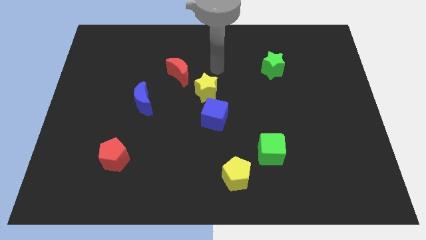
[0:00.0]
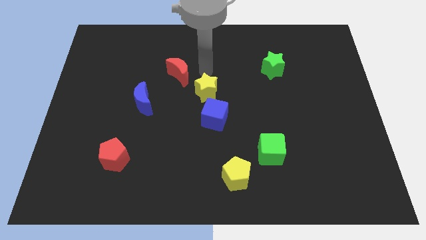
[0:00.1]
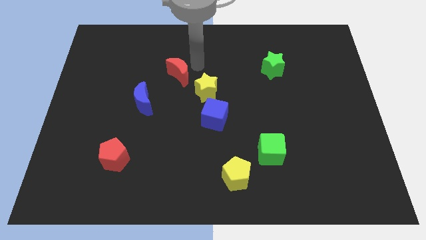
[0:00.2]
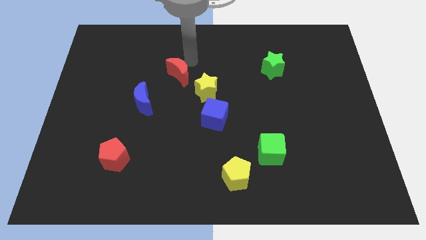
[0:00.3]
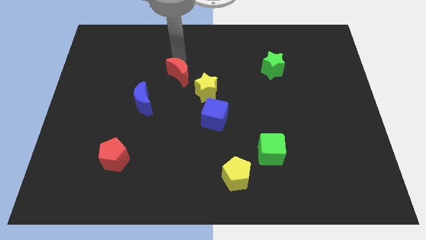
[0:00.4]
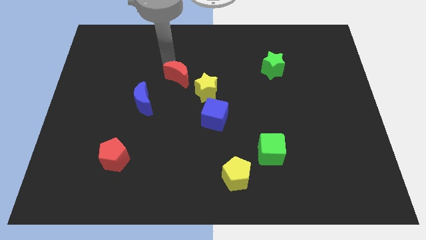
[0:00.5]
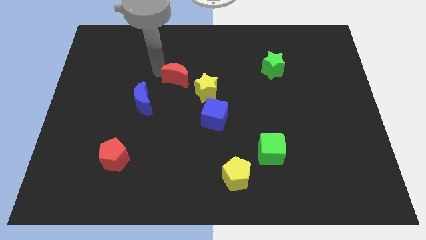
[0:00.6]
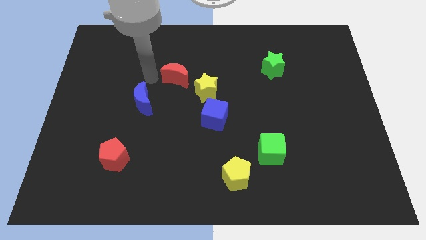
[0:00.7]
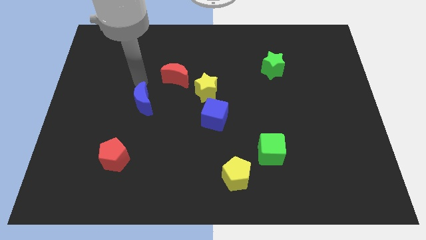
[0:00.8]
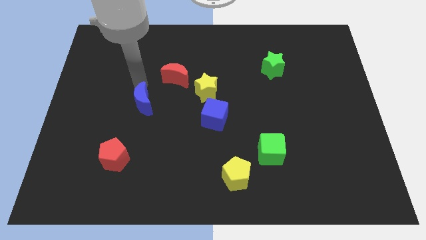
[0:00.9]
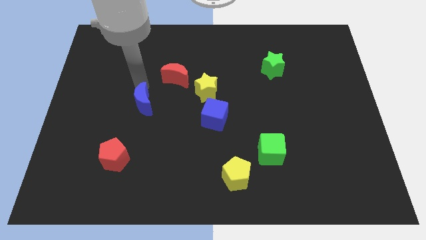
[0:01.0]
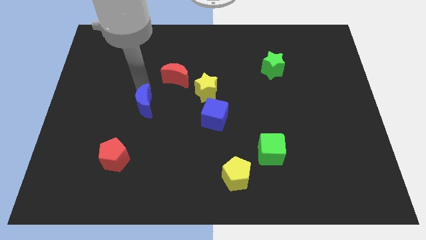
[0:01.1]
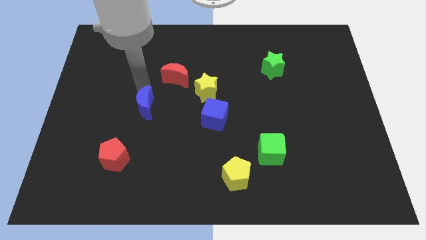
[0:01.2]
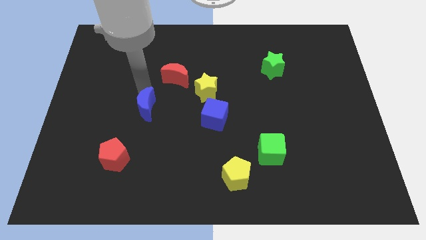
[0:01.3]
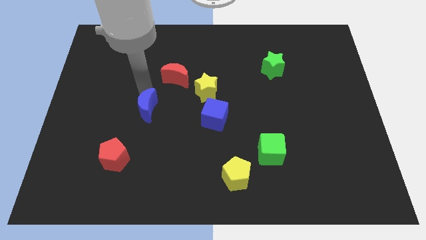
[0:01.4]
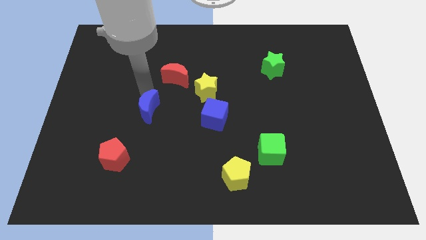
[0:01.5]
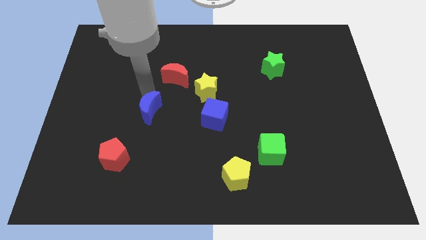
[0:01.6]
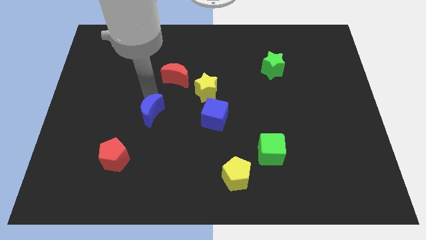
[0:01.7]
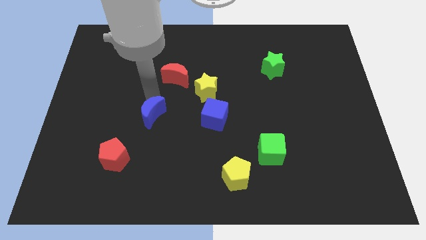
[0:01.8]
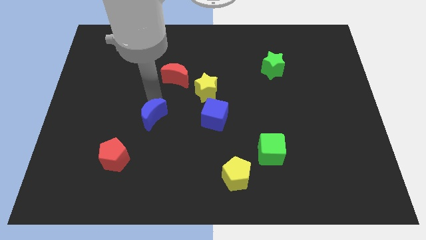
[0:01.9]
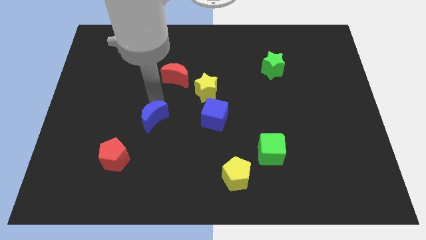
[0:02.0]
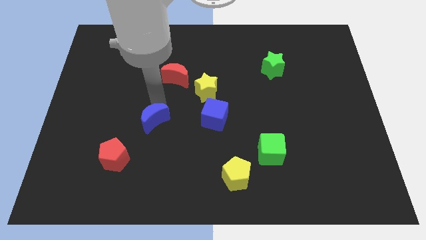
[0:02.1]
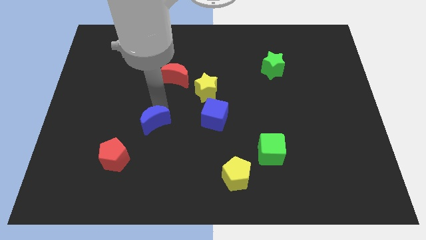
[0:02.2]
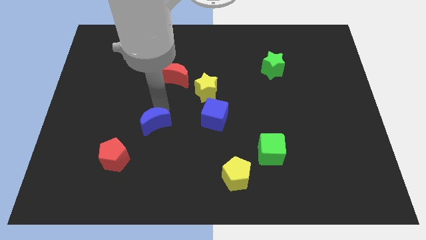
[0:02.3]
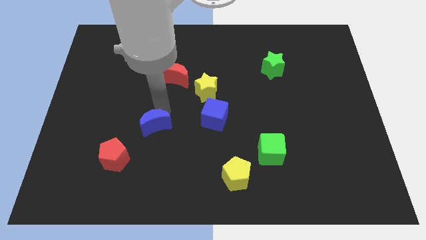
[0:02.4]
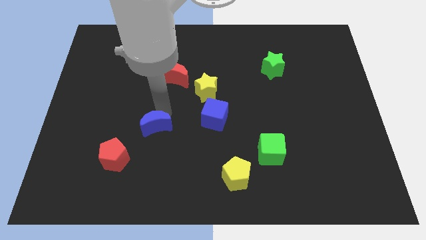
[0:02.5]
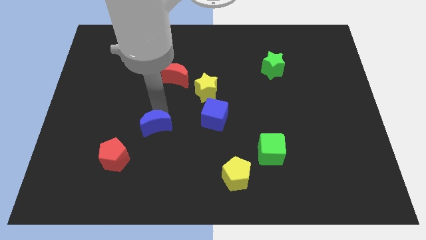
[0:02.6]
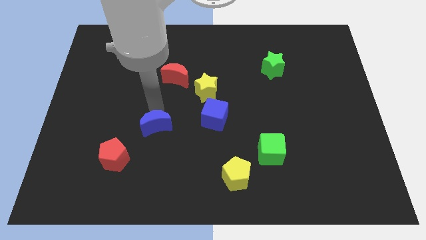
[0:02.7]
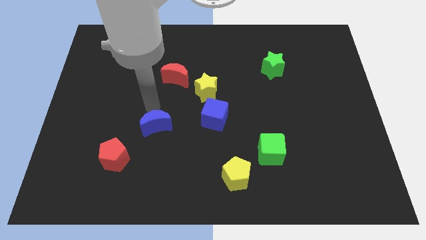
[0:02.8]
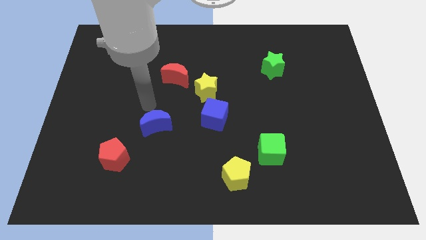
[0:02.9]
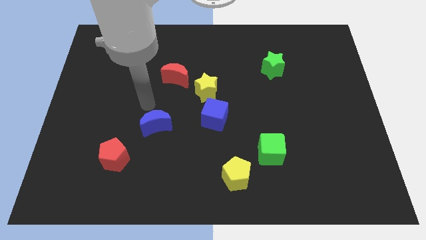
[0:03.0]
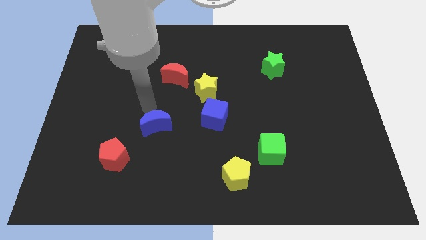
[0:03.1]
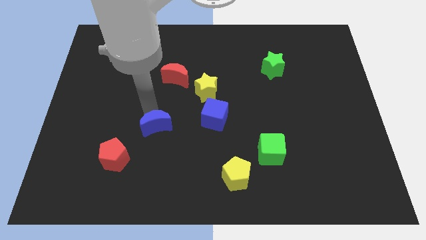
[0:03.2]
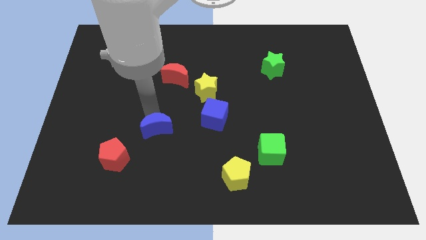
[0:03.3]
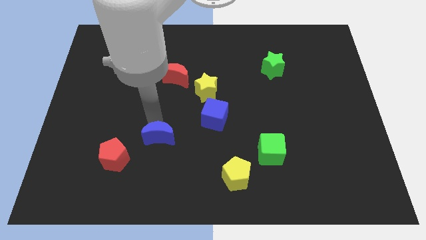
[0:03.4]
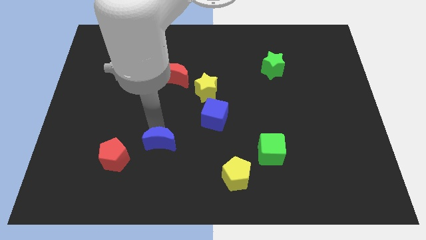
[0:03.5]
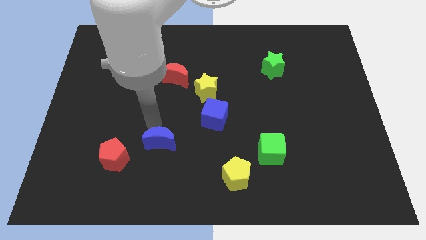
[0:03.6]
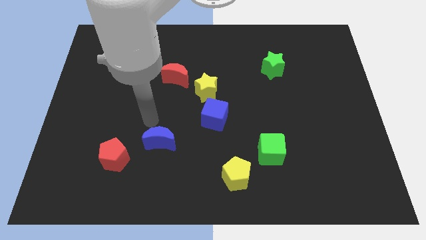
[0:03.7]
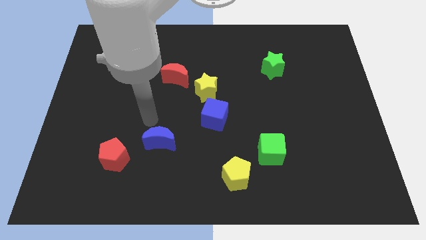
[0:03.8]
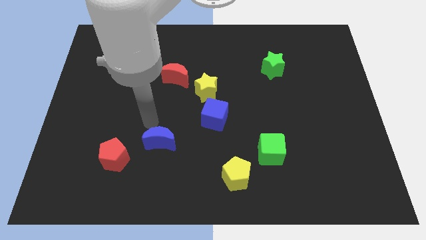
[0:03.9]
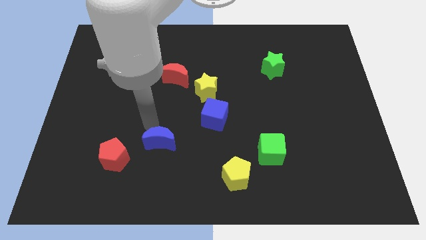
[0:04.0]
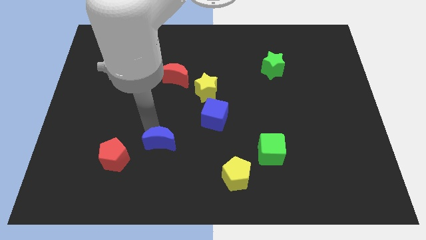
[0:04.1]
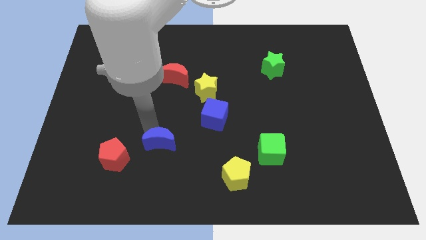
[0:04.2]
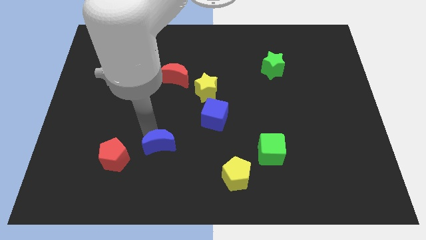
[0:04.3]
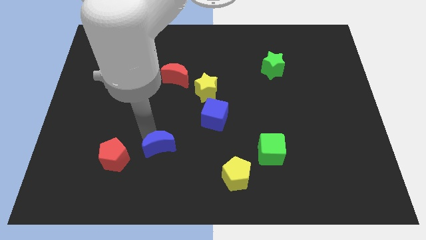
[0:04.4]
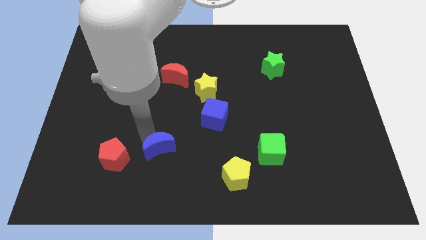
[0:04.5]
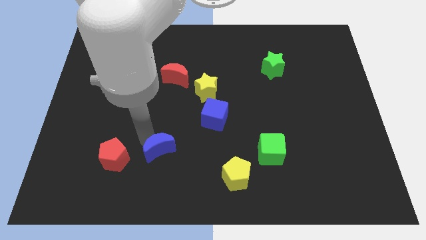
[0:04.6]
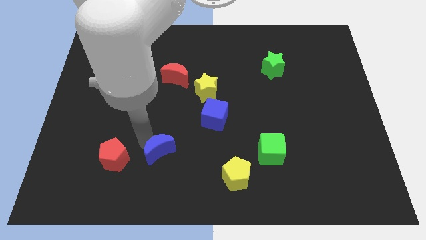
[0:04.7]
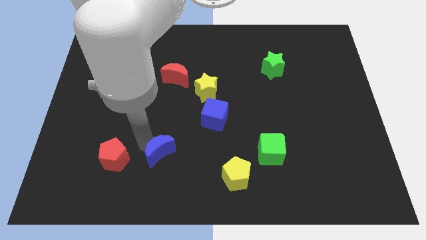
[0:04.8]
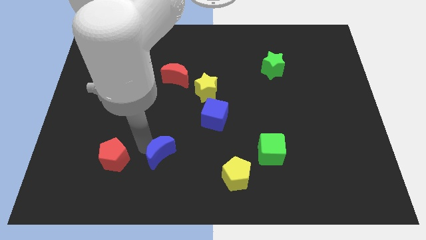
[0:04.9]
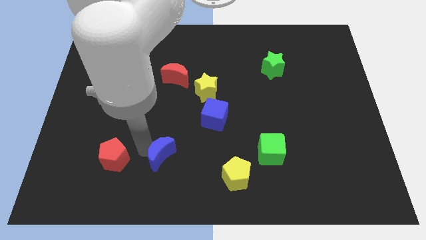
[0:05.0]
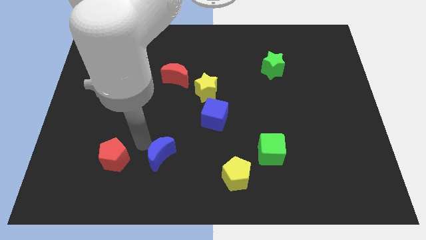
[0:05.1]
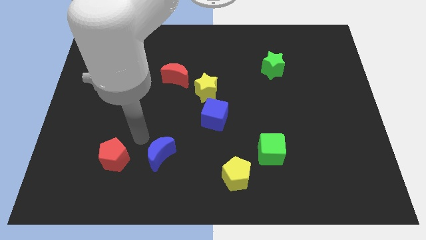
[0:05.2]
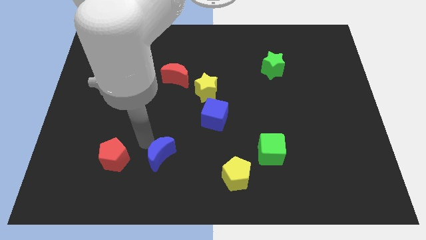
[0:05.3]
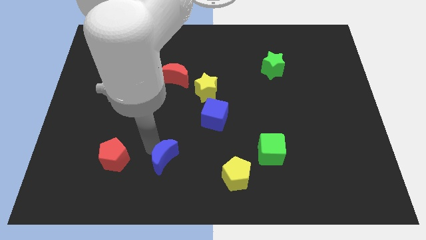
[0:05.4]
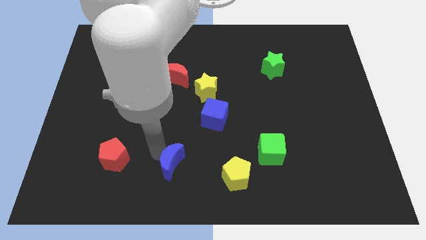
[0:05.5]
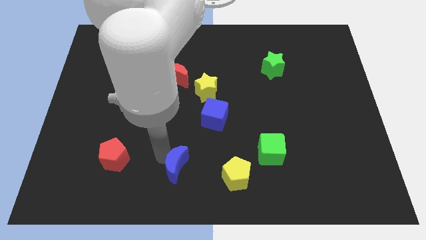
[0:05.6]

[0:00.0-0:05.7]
put the blue moon to the bottom

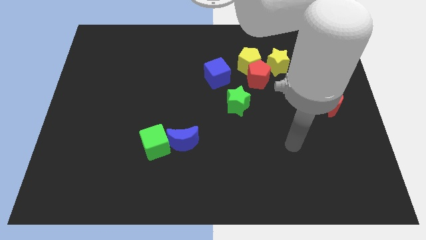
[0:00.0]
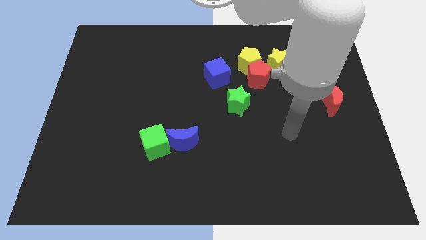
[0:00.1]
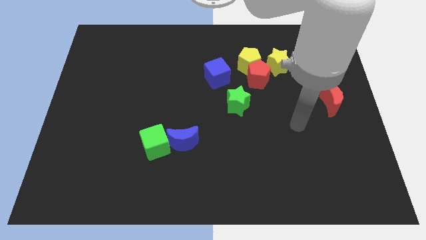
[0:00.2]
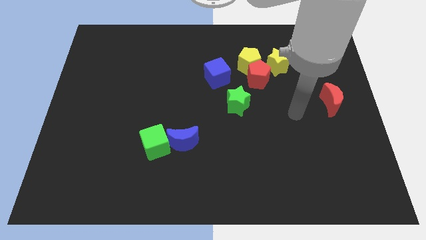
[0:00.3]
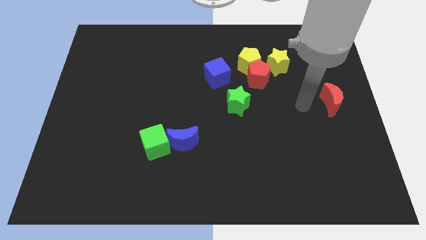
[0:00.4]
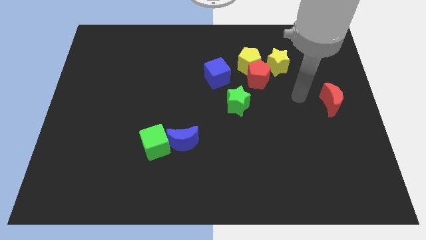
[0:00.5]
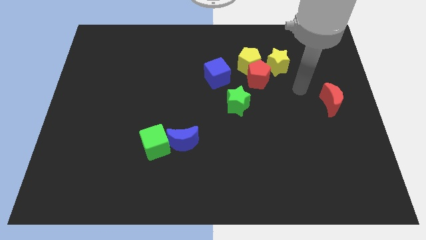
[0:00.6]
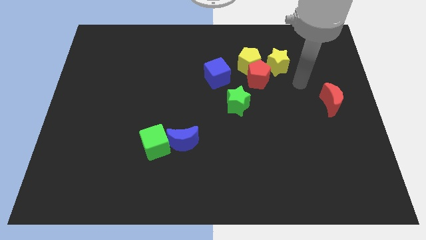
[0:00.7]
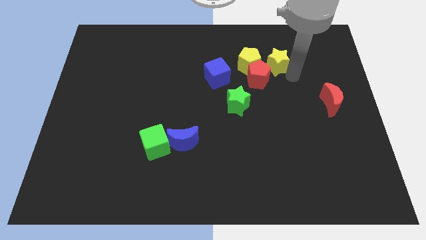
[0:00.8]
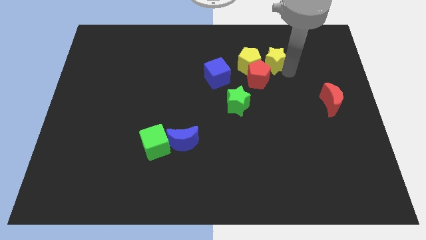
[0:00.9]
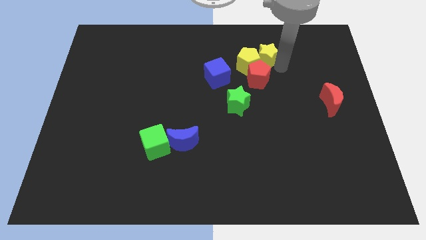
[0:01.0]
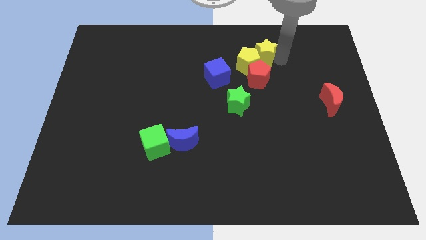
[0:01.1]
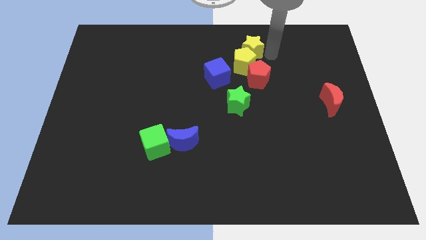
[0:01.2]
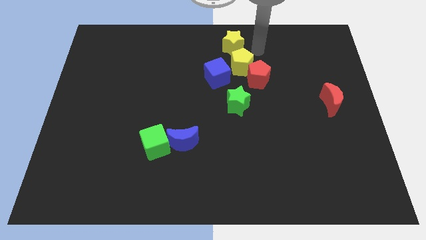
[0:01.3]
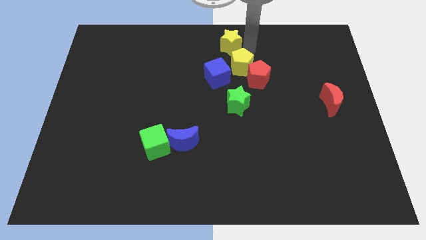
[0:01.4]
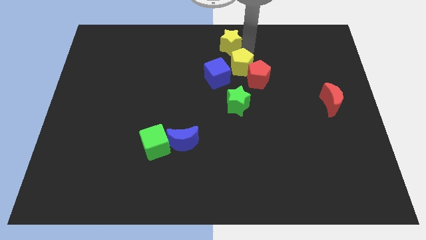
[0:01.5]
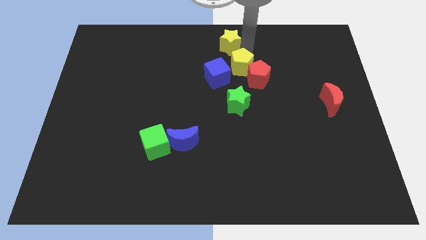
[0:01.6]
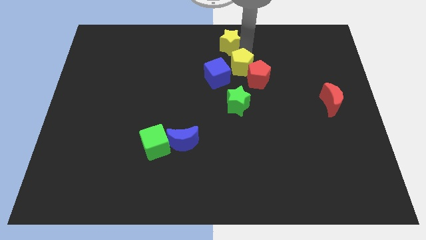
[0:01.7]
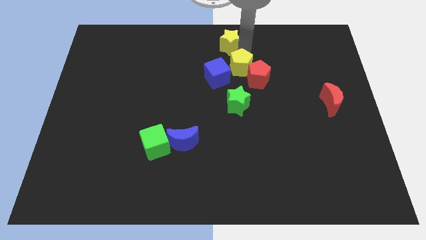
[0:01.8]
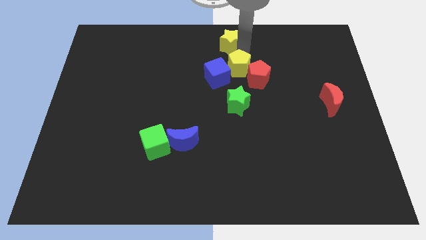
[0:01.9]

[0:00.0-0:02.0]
move the yellow pentagon to the middle
